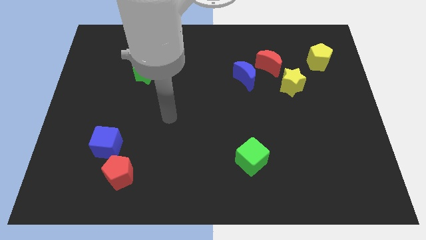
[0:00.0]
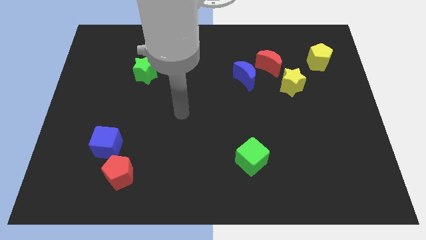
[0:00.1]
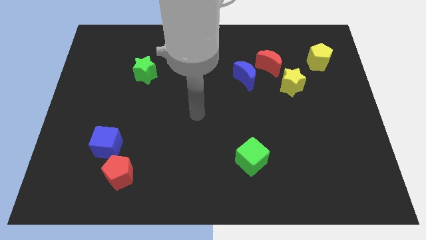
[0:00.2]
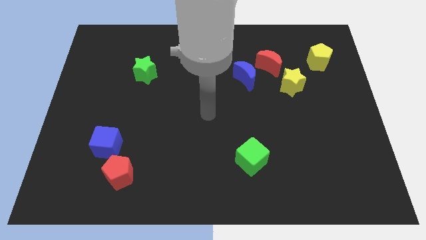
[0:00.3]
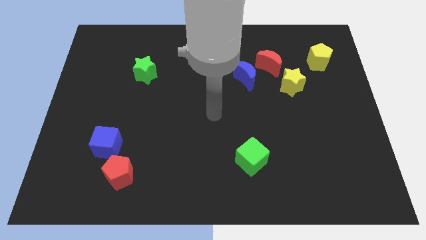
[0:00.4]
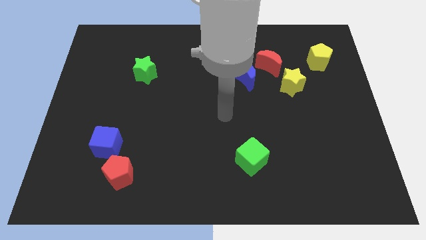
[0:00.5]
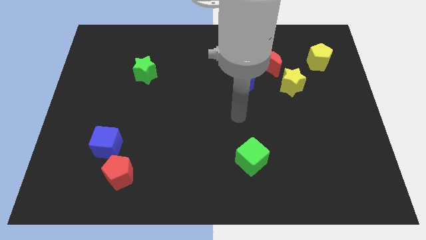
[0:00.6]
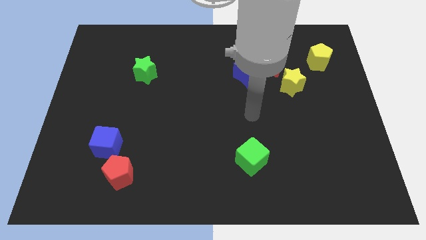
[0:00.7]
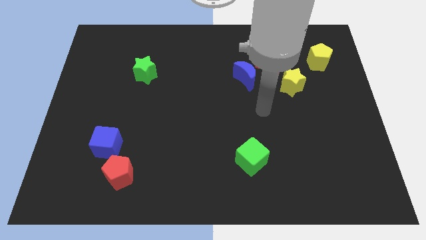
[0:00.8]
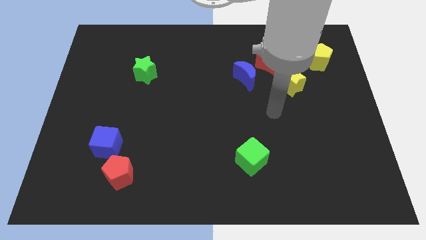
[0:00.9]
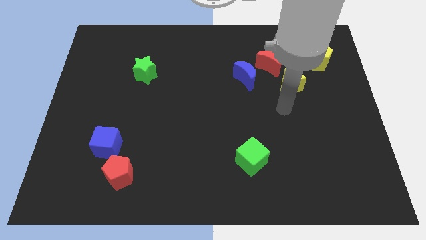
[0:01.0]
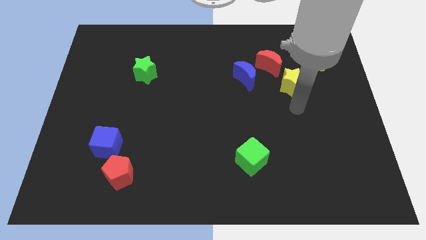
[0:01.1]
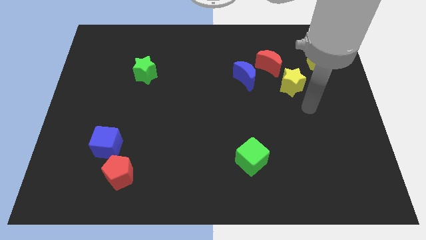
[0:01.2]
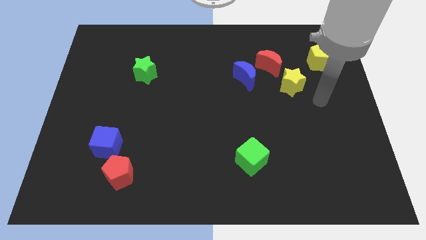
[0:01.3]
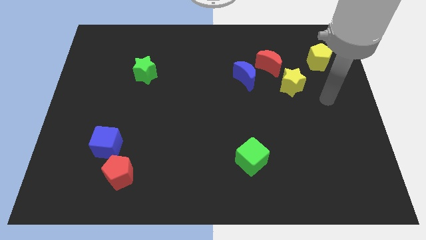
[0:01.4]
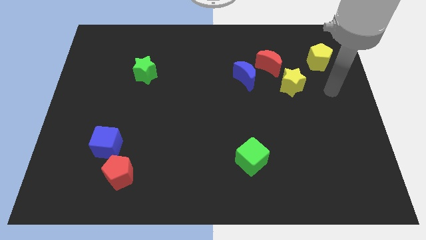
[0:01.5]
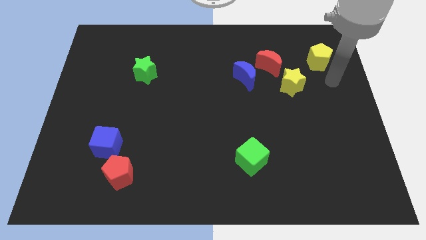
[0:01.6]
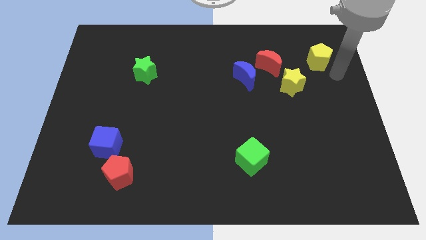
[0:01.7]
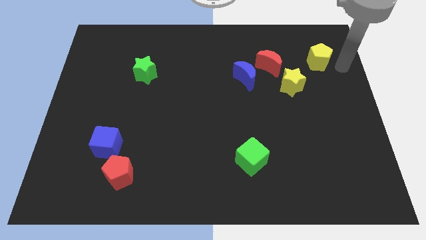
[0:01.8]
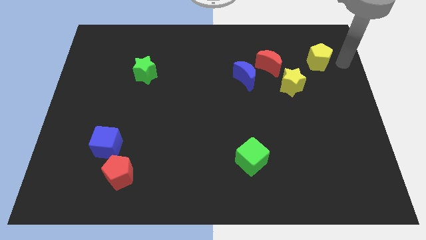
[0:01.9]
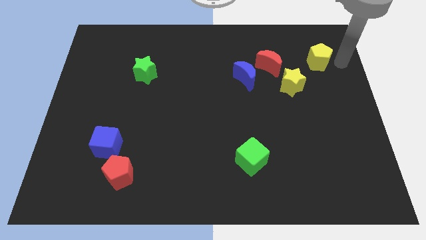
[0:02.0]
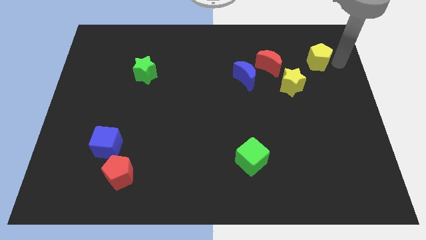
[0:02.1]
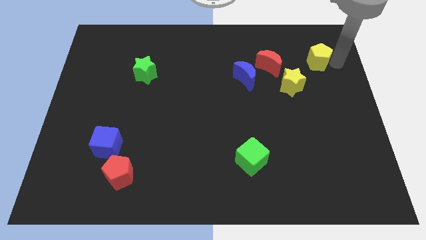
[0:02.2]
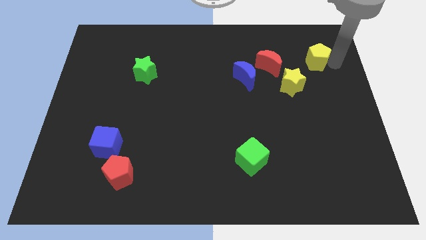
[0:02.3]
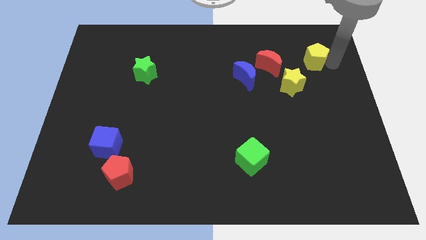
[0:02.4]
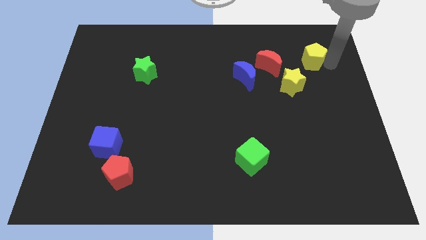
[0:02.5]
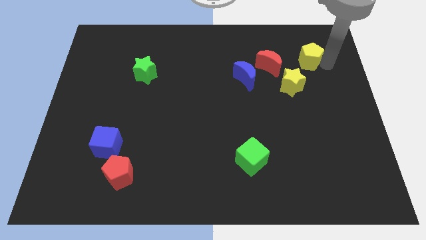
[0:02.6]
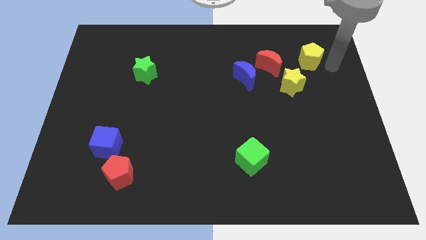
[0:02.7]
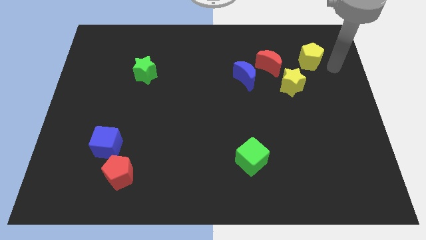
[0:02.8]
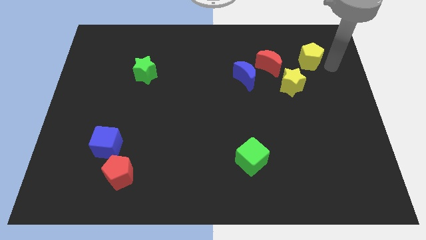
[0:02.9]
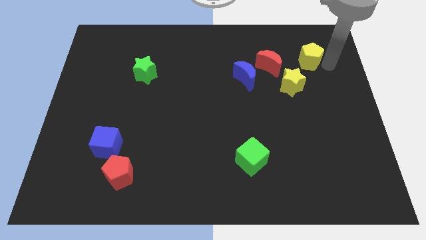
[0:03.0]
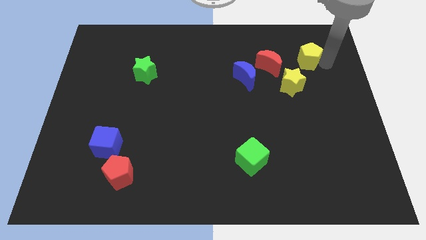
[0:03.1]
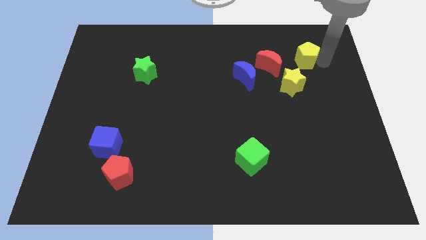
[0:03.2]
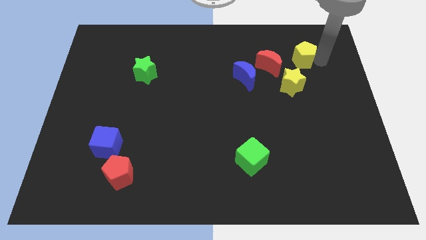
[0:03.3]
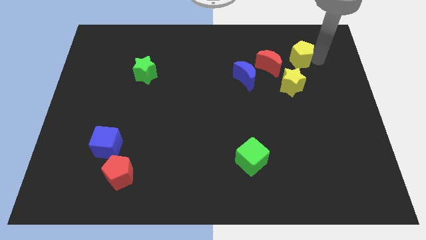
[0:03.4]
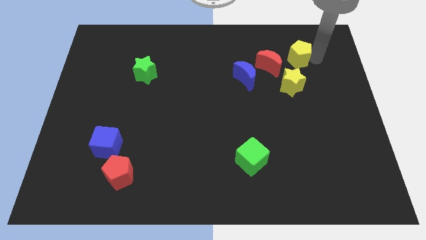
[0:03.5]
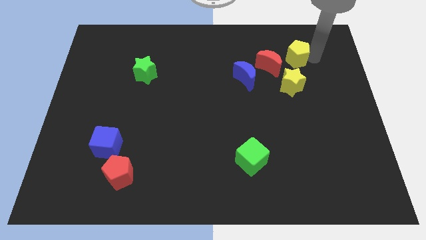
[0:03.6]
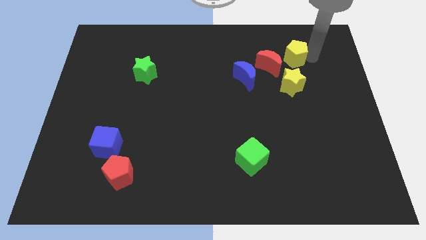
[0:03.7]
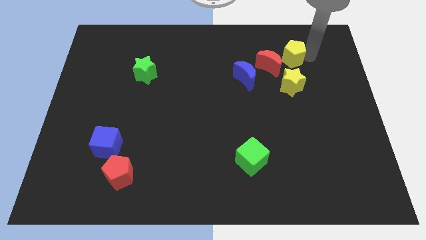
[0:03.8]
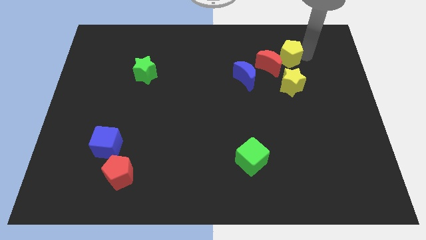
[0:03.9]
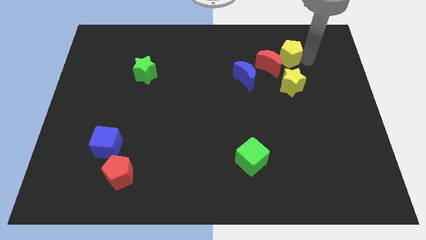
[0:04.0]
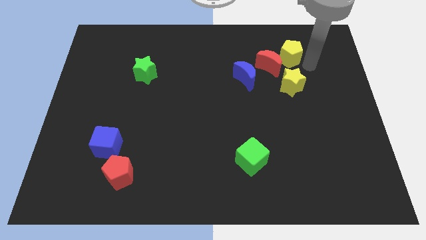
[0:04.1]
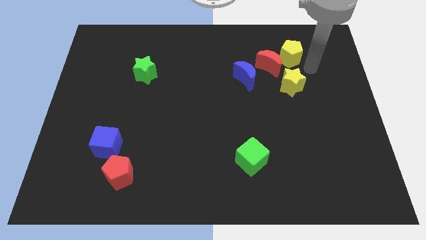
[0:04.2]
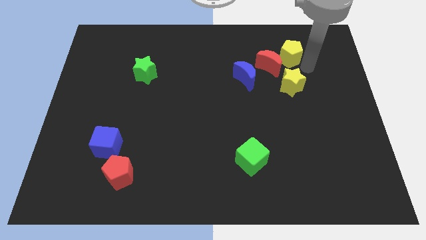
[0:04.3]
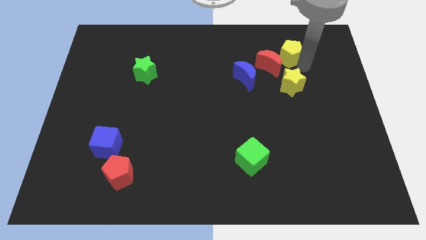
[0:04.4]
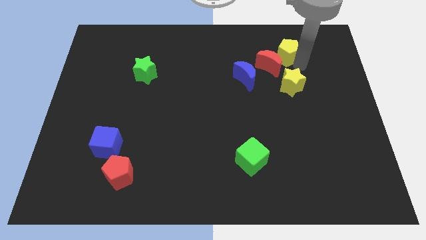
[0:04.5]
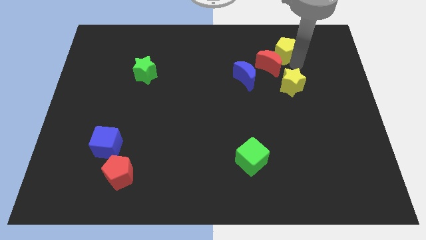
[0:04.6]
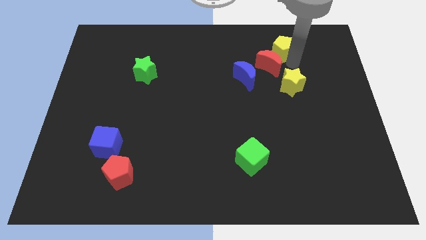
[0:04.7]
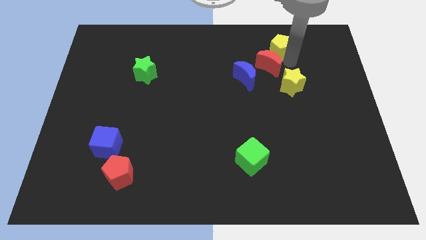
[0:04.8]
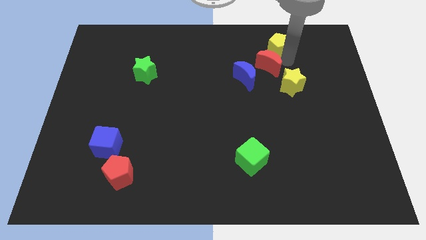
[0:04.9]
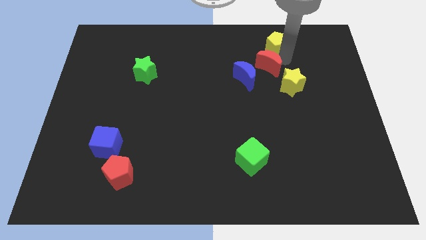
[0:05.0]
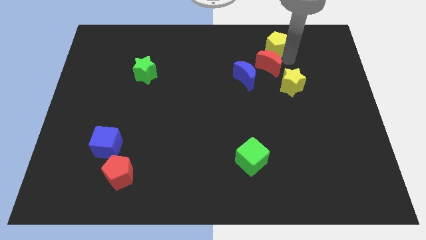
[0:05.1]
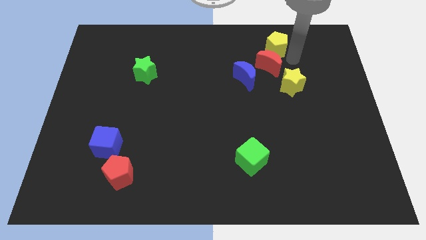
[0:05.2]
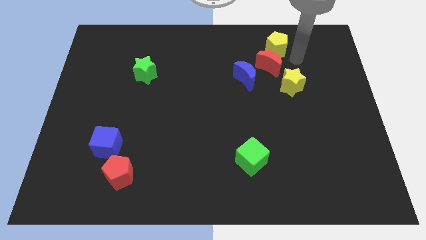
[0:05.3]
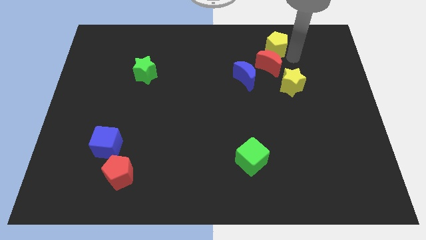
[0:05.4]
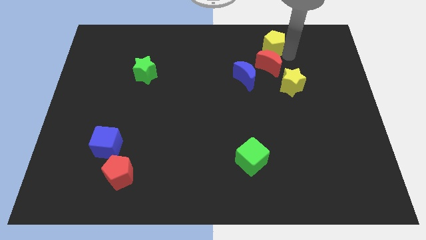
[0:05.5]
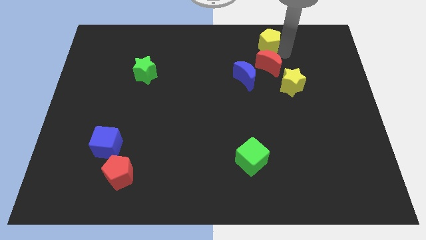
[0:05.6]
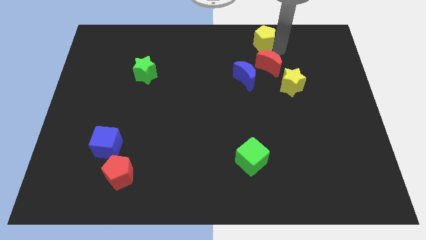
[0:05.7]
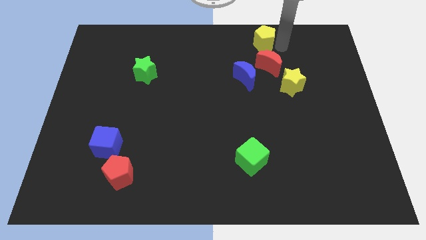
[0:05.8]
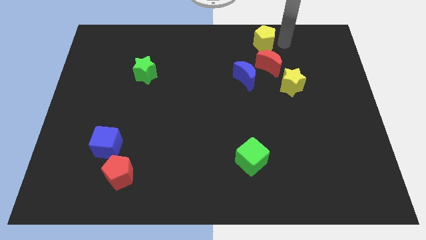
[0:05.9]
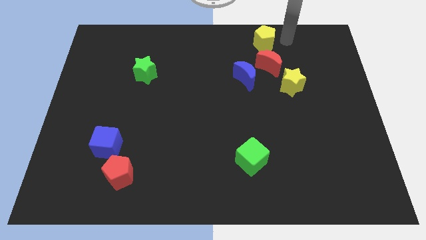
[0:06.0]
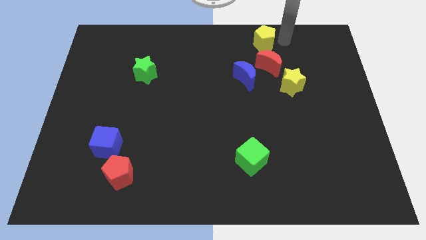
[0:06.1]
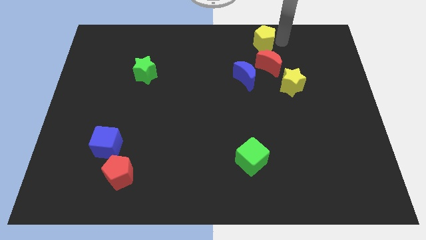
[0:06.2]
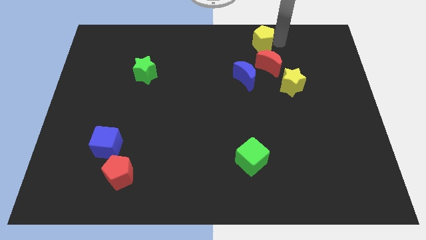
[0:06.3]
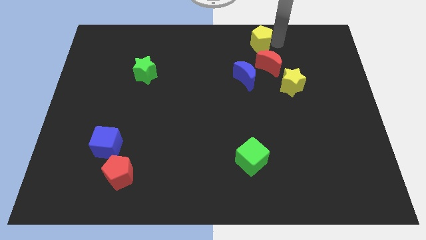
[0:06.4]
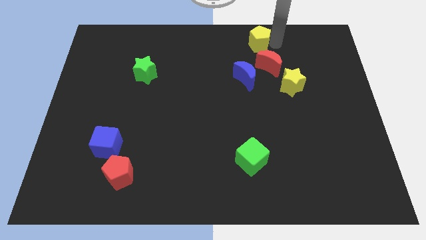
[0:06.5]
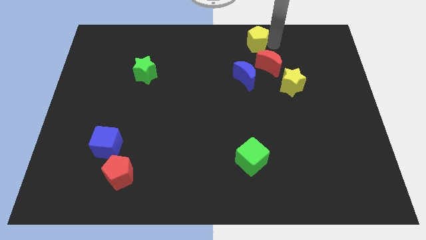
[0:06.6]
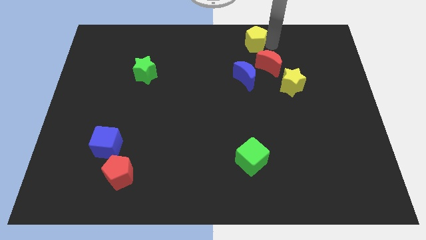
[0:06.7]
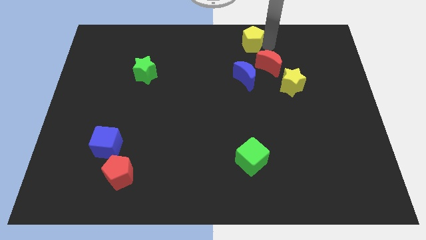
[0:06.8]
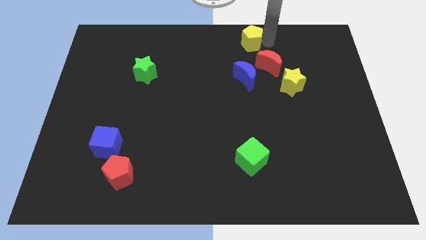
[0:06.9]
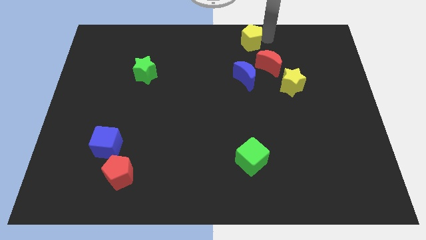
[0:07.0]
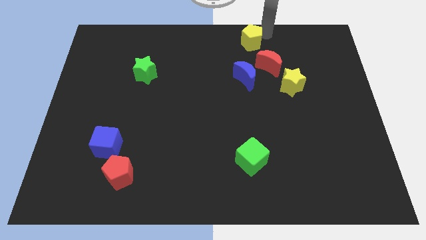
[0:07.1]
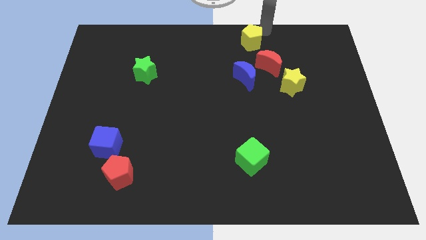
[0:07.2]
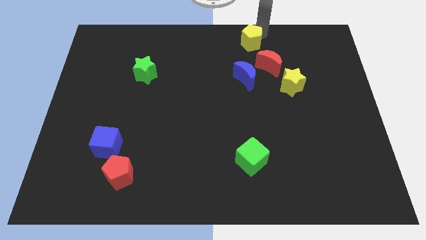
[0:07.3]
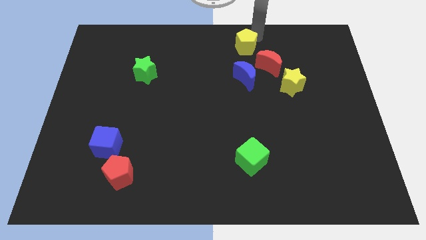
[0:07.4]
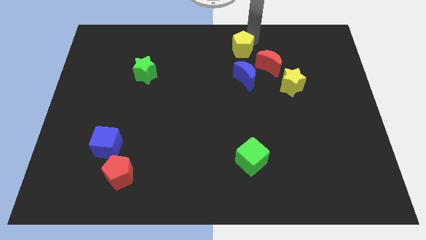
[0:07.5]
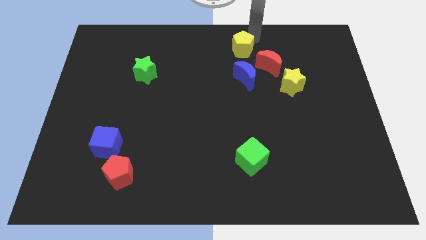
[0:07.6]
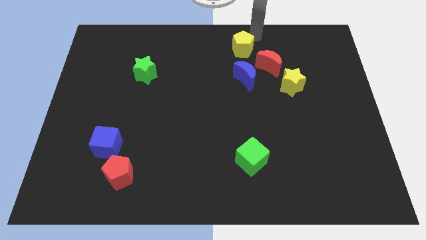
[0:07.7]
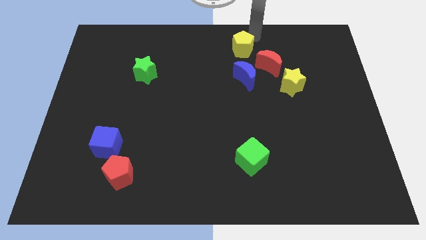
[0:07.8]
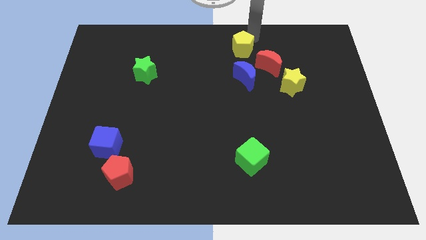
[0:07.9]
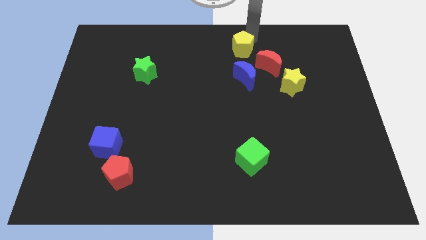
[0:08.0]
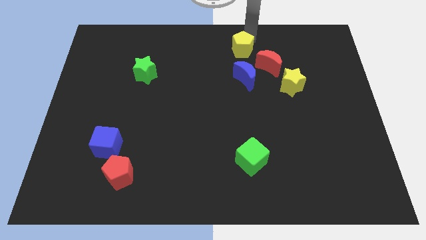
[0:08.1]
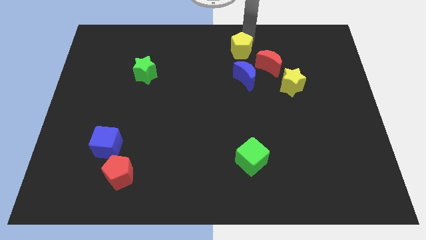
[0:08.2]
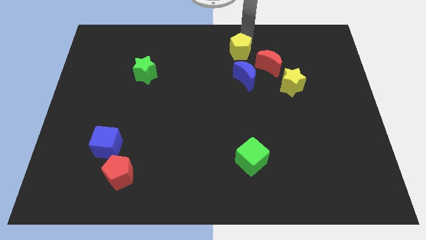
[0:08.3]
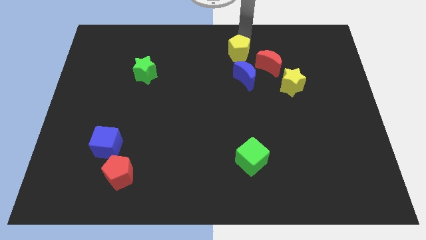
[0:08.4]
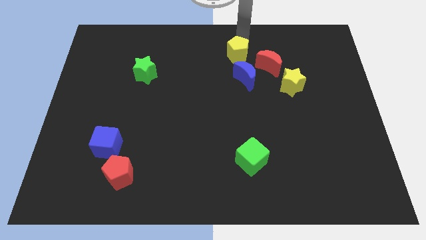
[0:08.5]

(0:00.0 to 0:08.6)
slide the yellow pentagon to the left of the red moon
